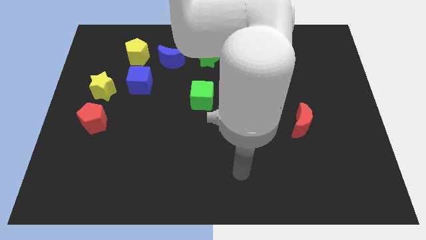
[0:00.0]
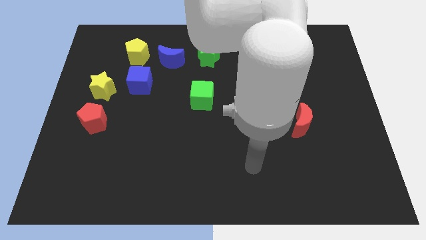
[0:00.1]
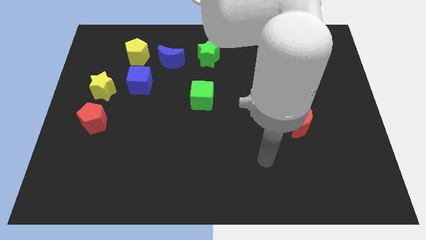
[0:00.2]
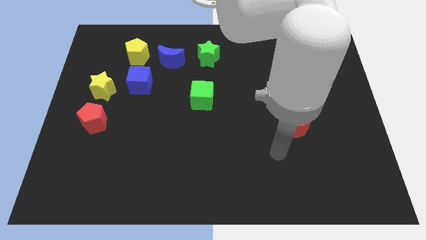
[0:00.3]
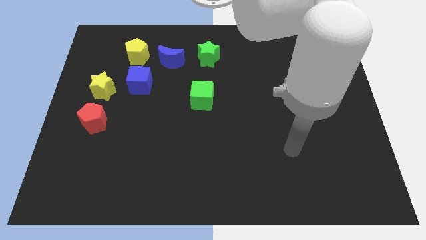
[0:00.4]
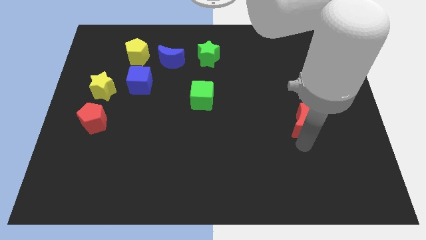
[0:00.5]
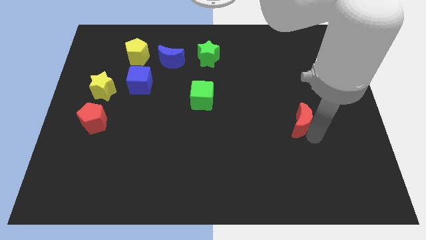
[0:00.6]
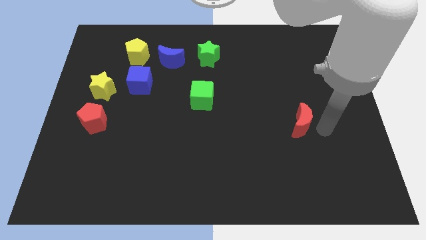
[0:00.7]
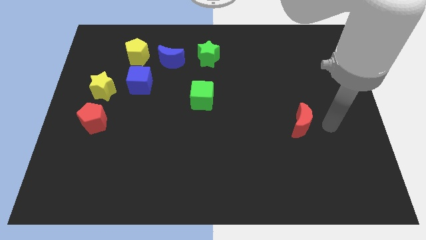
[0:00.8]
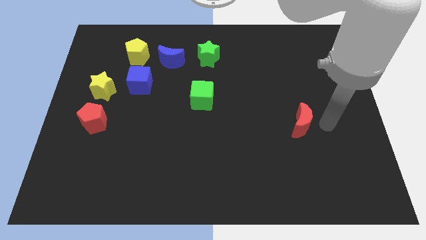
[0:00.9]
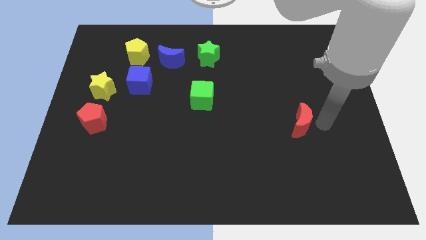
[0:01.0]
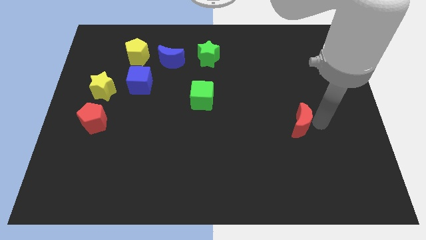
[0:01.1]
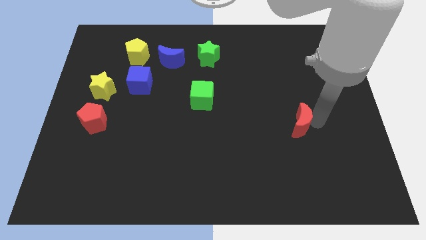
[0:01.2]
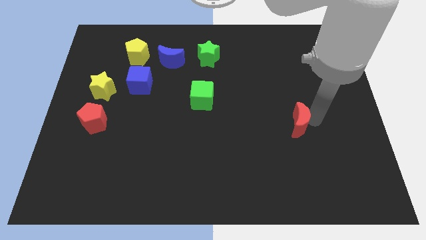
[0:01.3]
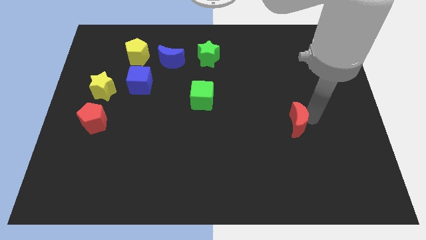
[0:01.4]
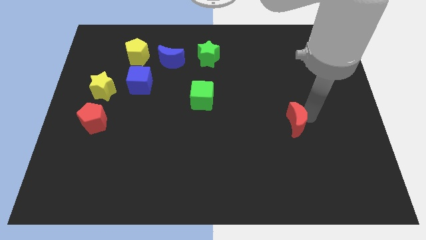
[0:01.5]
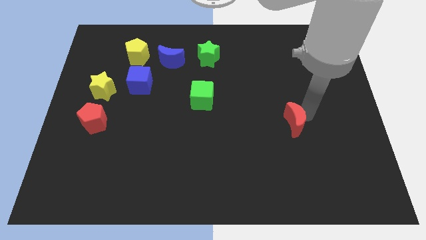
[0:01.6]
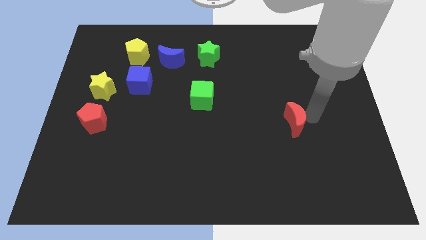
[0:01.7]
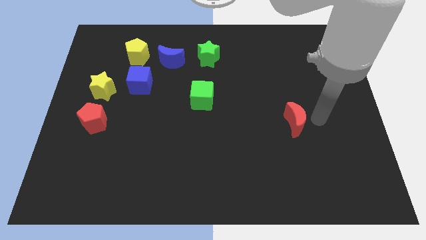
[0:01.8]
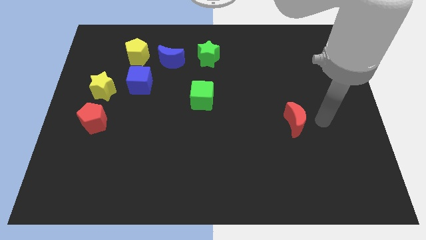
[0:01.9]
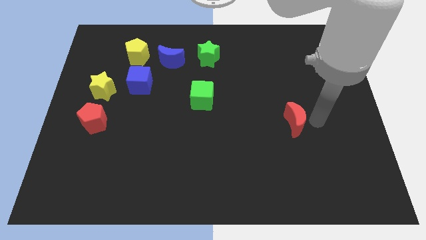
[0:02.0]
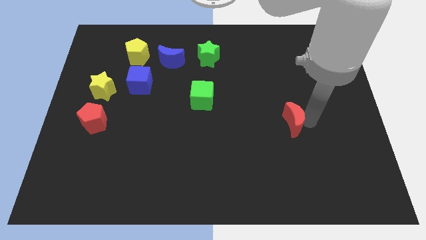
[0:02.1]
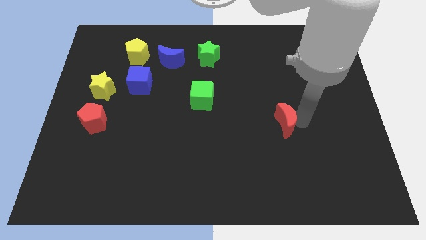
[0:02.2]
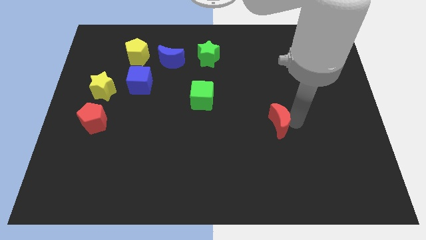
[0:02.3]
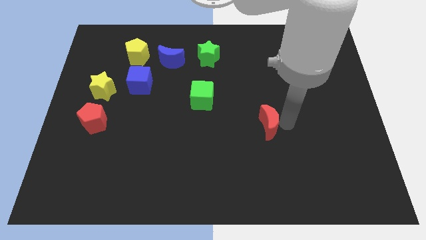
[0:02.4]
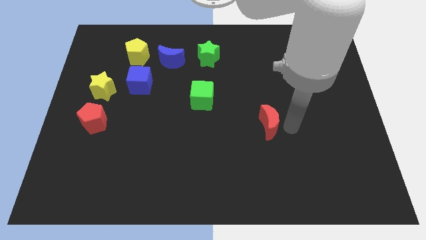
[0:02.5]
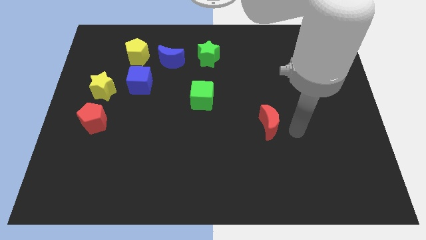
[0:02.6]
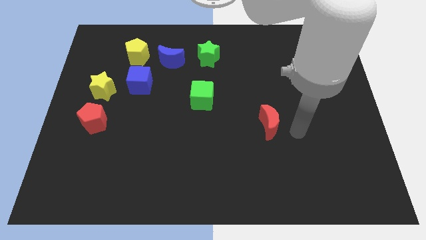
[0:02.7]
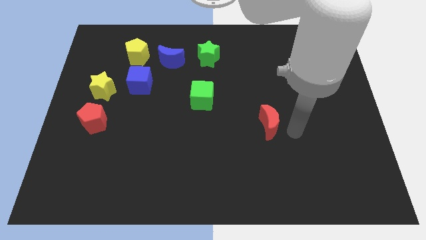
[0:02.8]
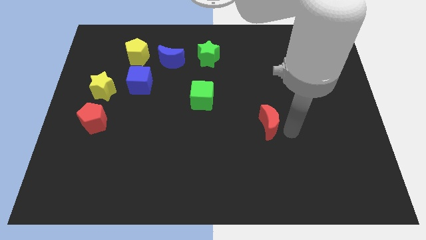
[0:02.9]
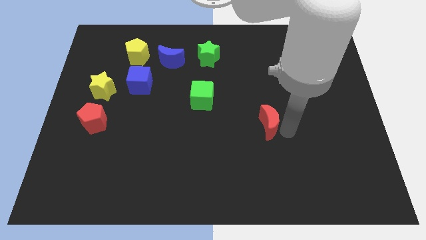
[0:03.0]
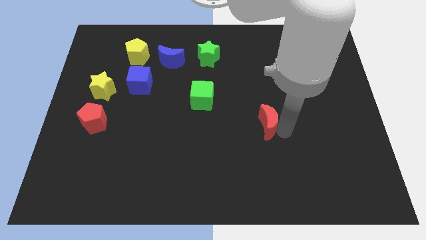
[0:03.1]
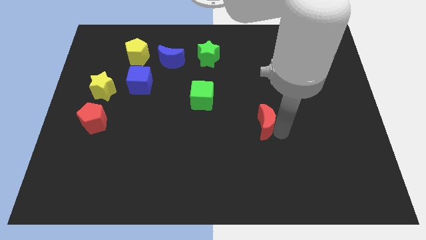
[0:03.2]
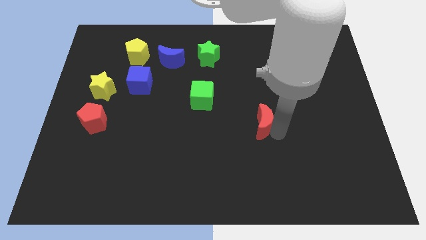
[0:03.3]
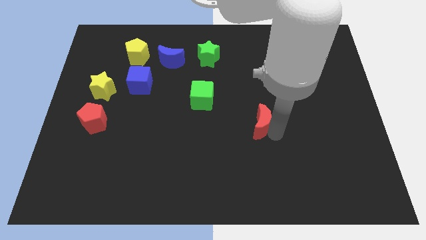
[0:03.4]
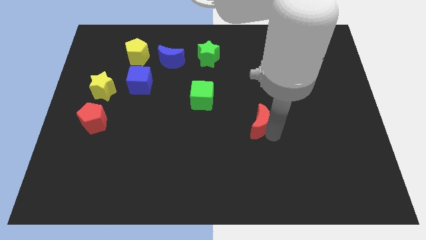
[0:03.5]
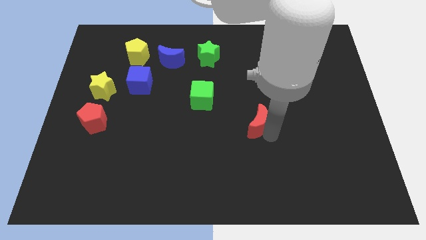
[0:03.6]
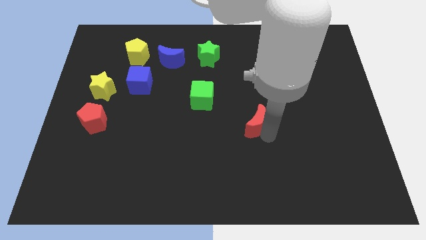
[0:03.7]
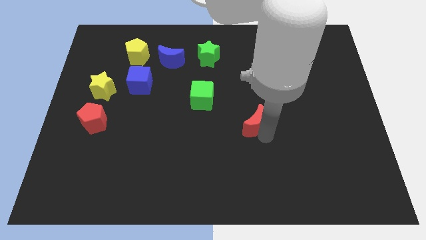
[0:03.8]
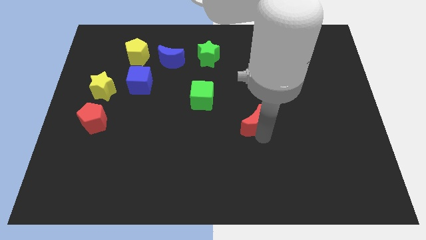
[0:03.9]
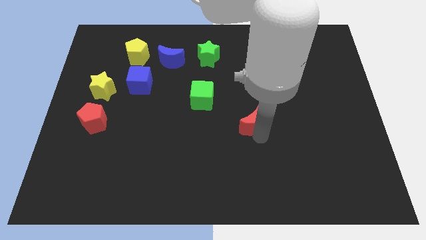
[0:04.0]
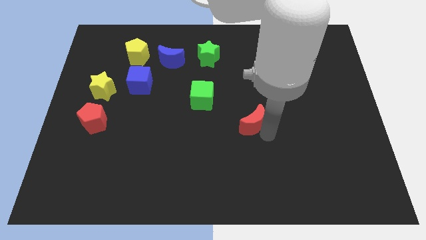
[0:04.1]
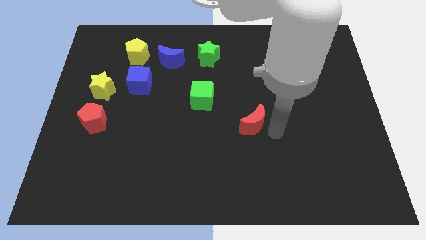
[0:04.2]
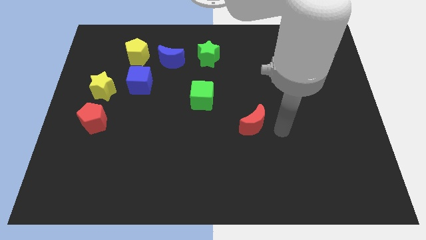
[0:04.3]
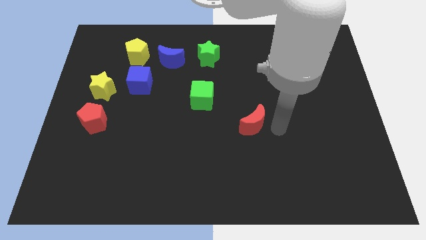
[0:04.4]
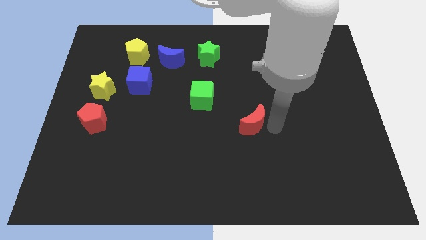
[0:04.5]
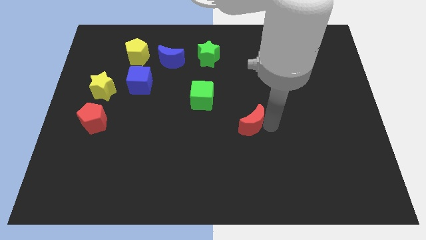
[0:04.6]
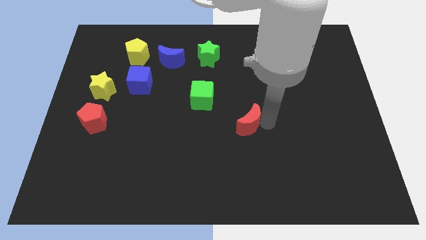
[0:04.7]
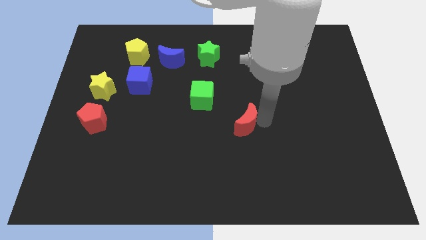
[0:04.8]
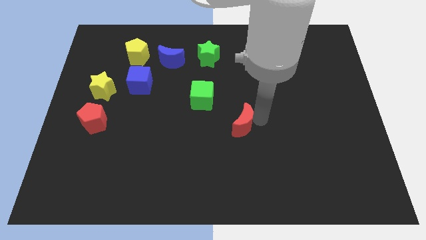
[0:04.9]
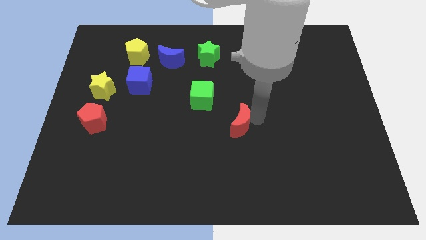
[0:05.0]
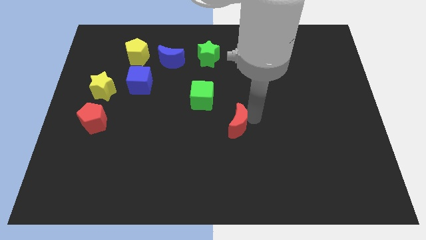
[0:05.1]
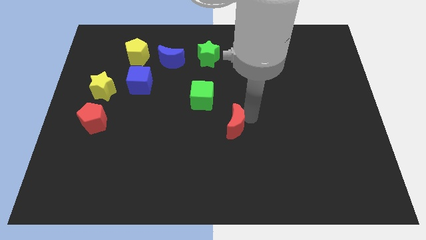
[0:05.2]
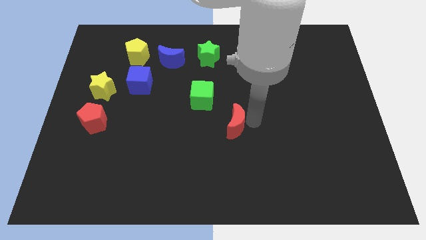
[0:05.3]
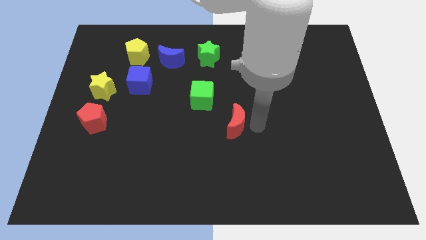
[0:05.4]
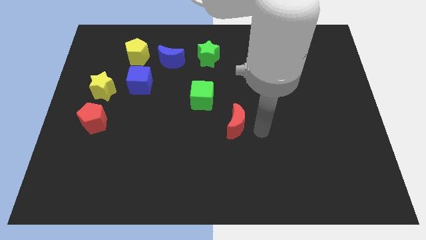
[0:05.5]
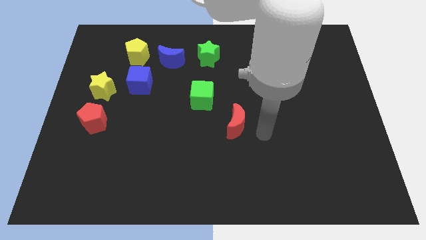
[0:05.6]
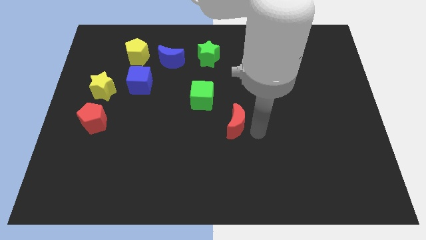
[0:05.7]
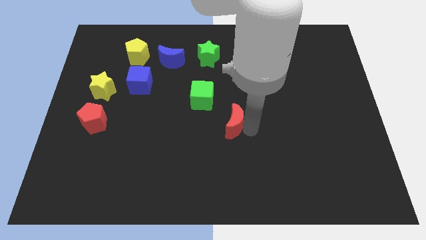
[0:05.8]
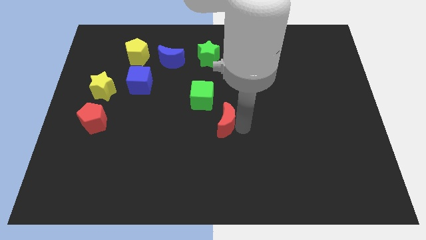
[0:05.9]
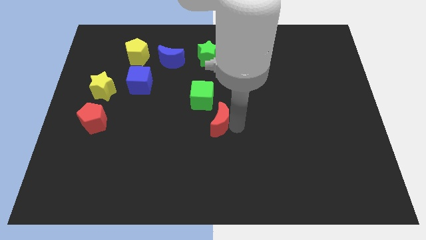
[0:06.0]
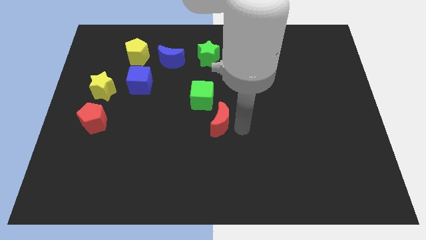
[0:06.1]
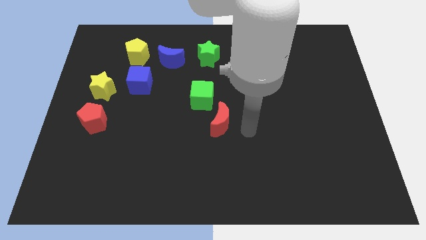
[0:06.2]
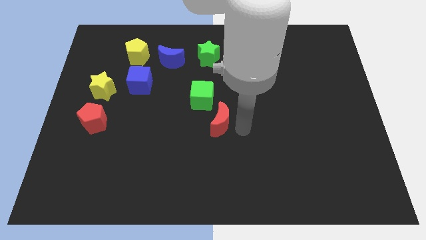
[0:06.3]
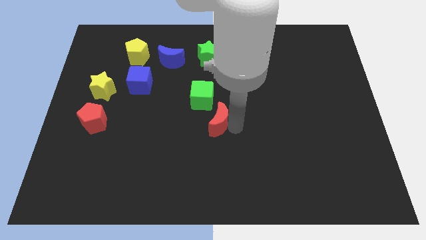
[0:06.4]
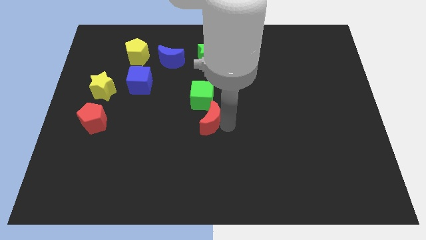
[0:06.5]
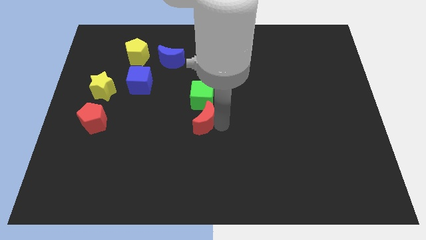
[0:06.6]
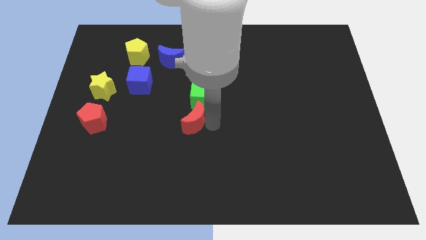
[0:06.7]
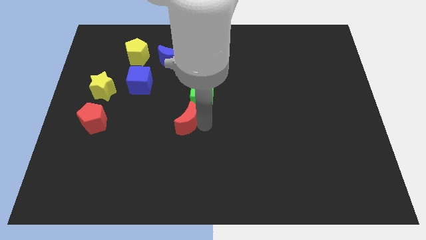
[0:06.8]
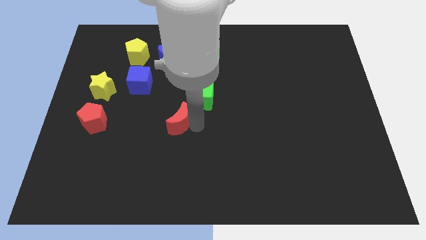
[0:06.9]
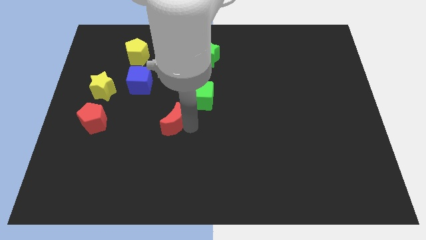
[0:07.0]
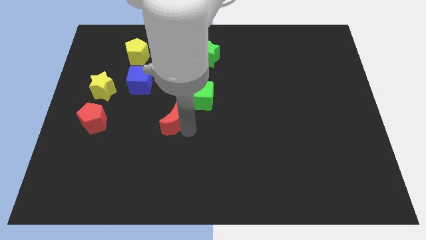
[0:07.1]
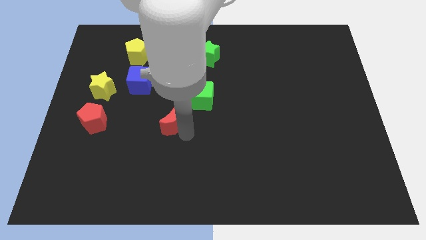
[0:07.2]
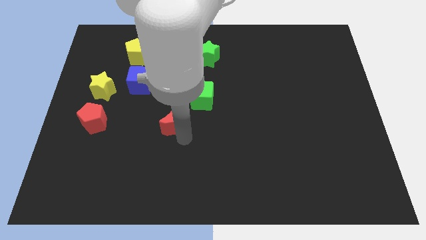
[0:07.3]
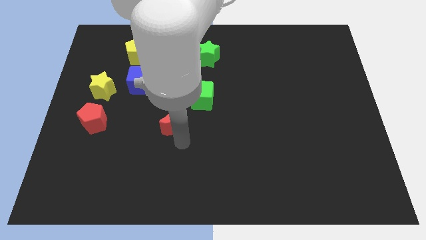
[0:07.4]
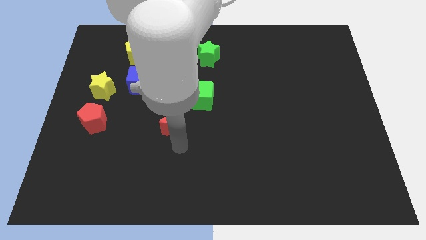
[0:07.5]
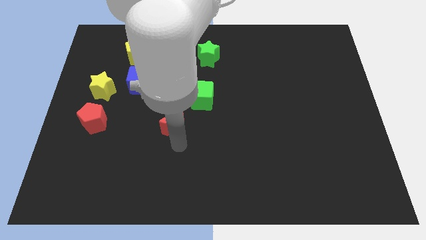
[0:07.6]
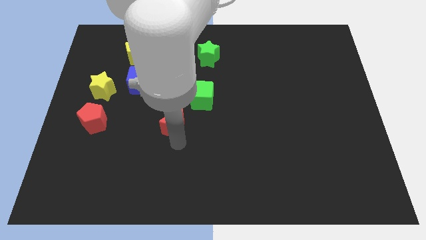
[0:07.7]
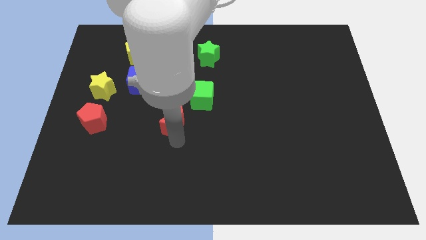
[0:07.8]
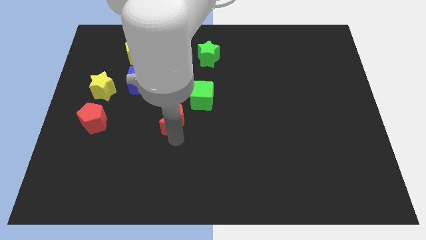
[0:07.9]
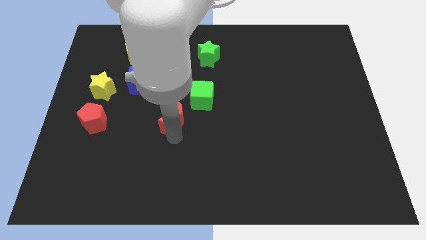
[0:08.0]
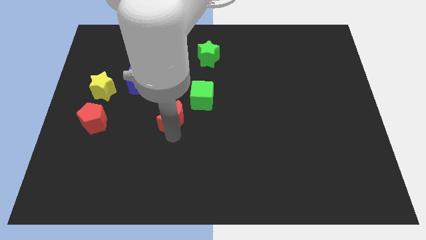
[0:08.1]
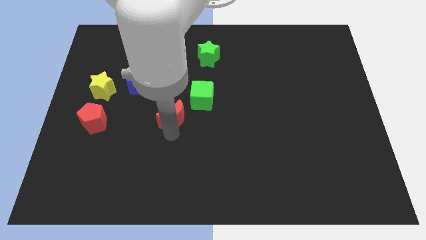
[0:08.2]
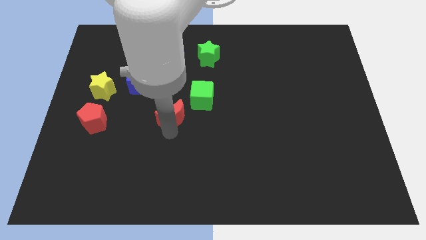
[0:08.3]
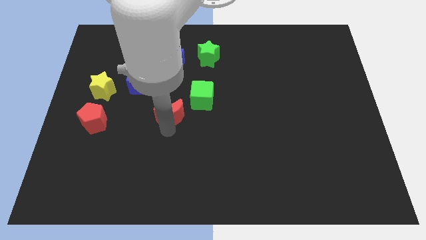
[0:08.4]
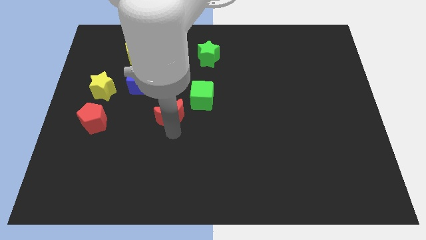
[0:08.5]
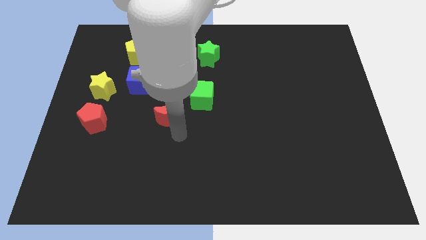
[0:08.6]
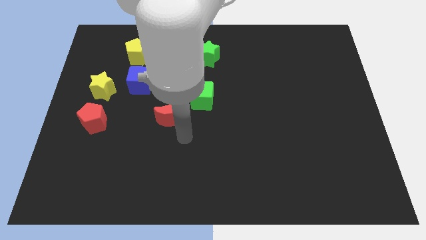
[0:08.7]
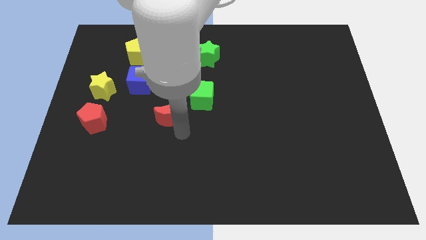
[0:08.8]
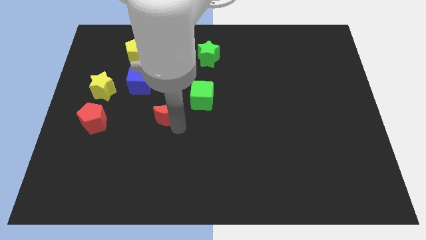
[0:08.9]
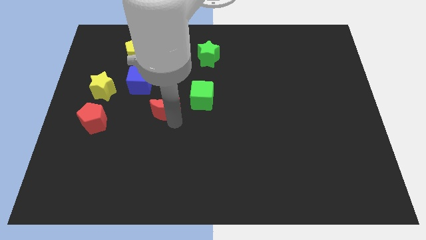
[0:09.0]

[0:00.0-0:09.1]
move the red moon just left of the green cube
